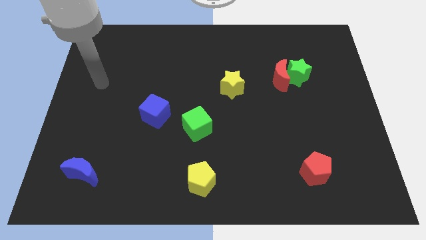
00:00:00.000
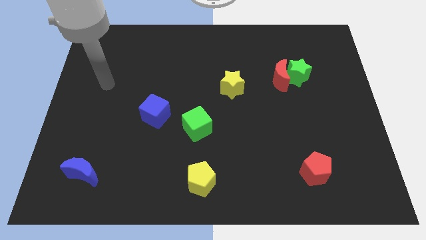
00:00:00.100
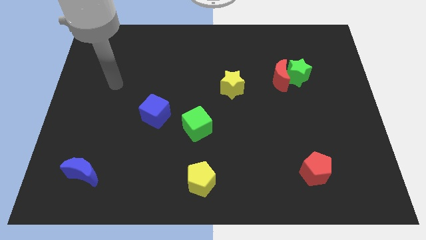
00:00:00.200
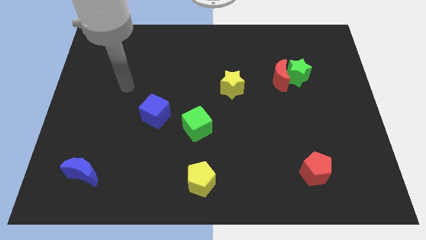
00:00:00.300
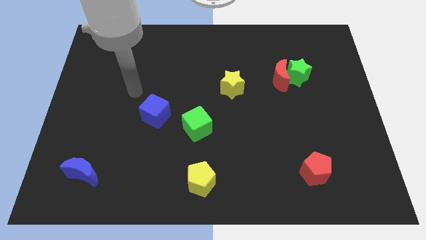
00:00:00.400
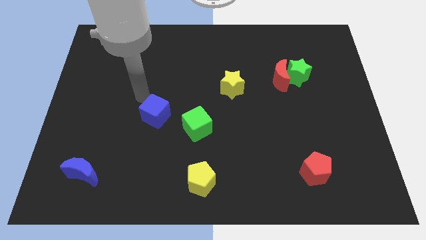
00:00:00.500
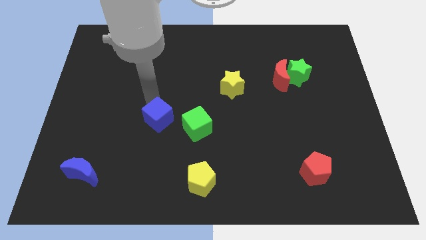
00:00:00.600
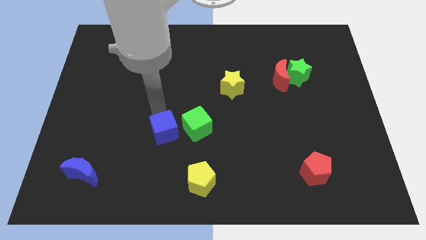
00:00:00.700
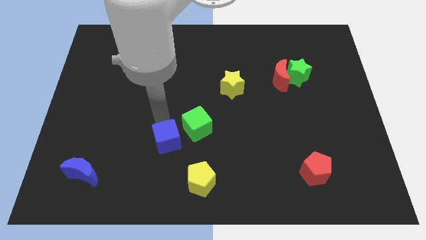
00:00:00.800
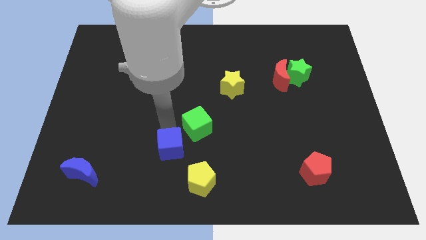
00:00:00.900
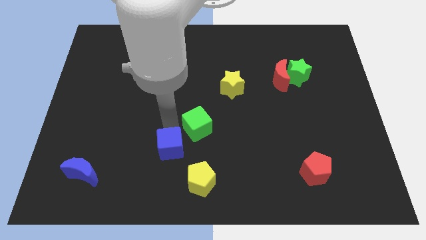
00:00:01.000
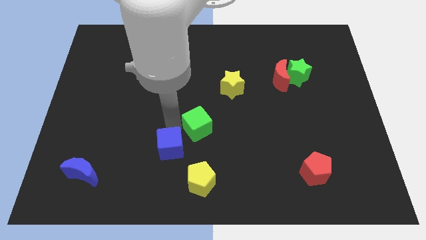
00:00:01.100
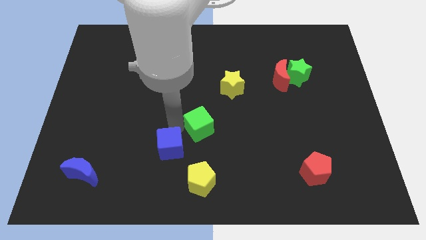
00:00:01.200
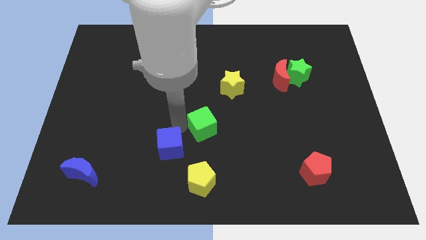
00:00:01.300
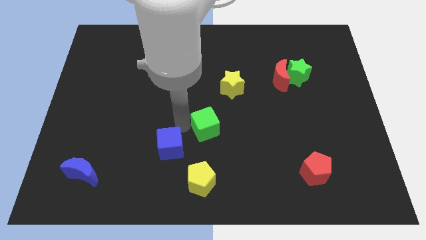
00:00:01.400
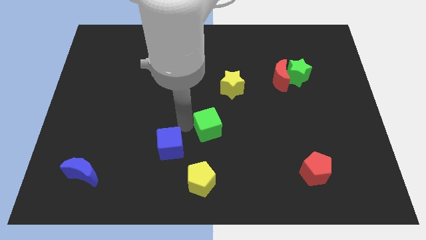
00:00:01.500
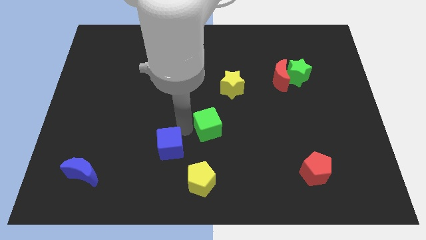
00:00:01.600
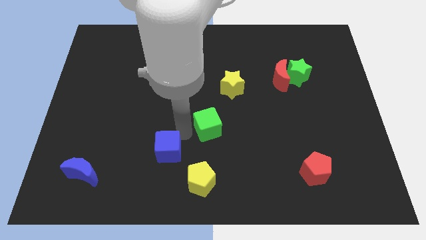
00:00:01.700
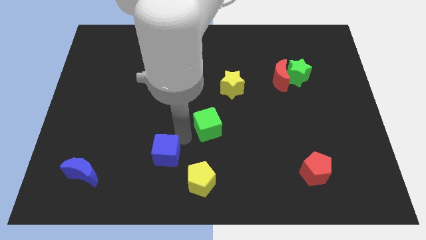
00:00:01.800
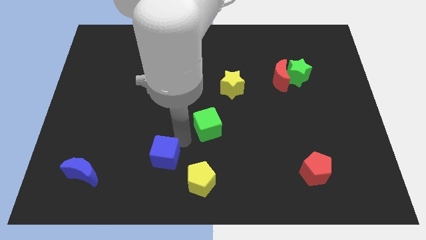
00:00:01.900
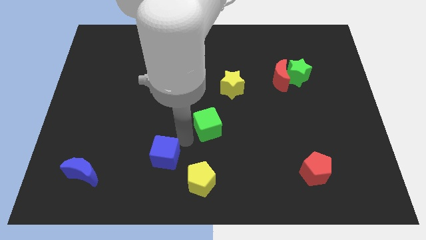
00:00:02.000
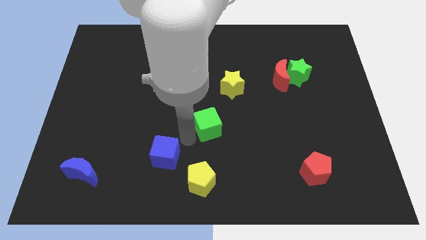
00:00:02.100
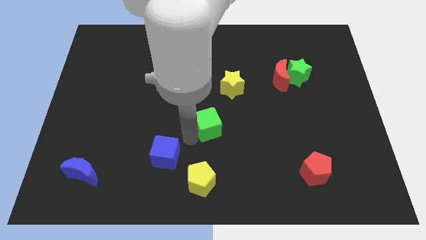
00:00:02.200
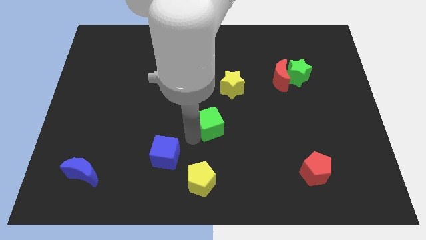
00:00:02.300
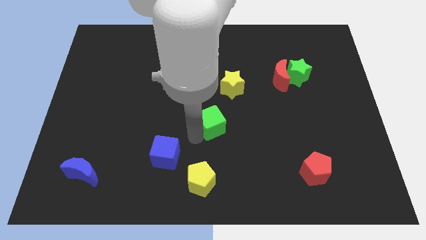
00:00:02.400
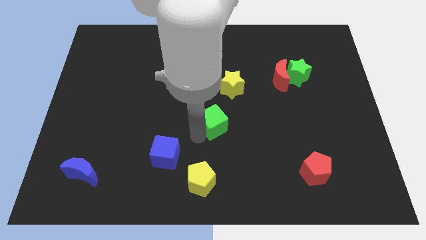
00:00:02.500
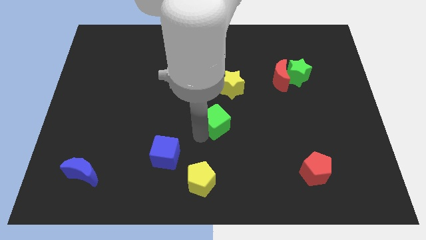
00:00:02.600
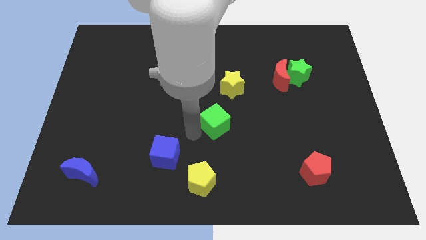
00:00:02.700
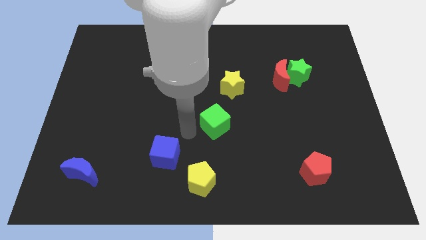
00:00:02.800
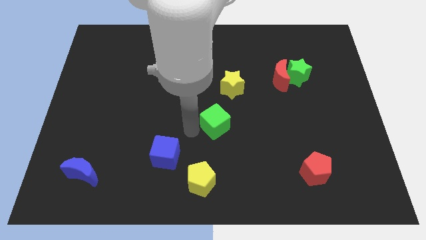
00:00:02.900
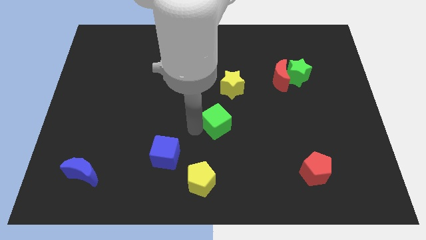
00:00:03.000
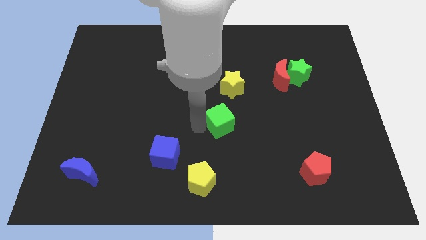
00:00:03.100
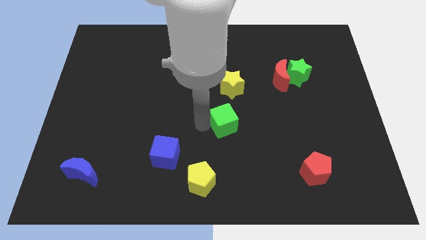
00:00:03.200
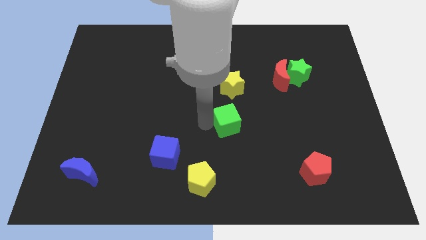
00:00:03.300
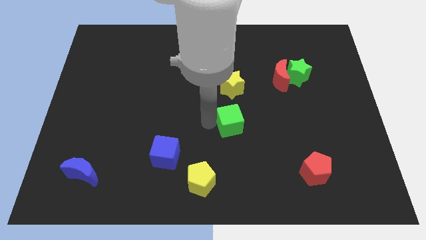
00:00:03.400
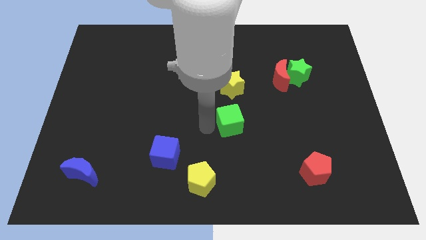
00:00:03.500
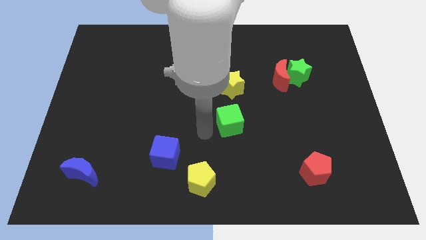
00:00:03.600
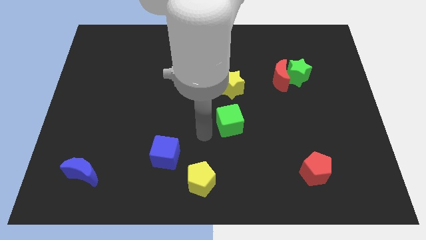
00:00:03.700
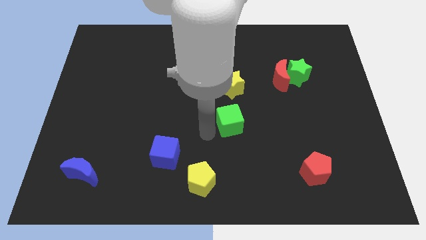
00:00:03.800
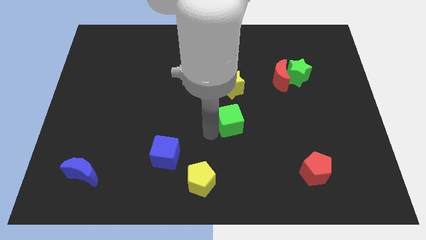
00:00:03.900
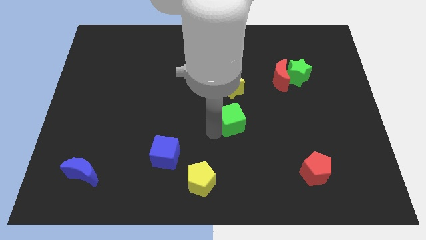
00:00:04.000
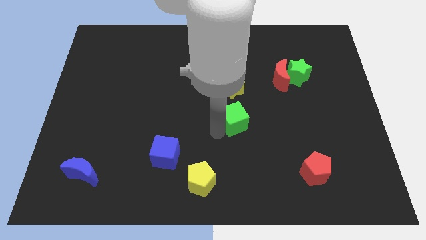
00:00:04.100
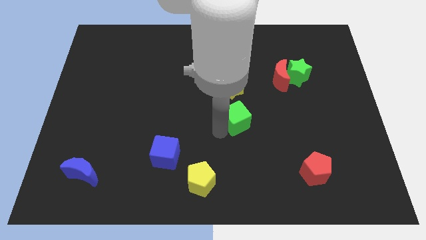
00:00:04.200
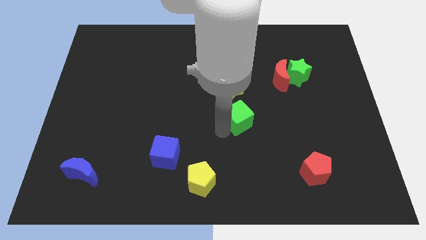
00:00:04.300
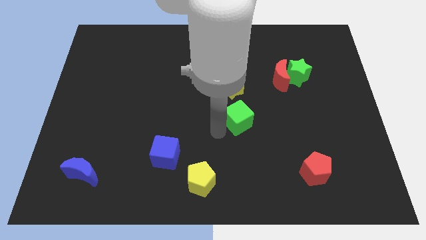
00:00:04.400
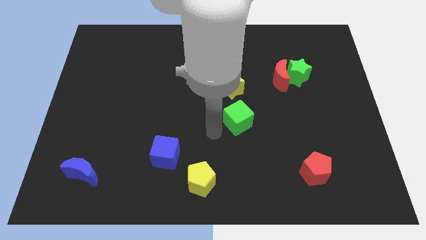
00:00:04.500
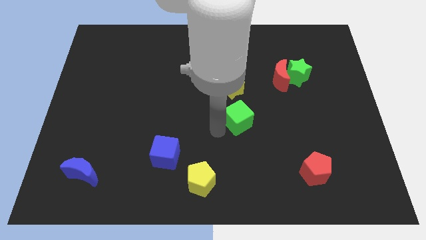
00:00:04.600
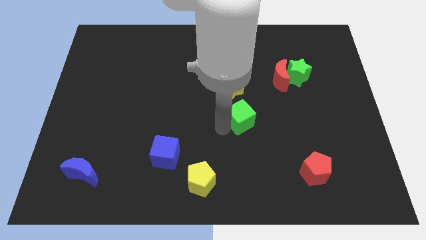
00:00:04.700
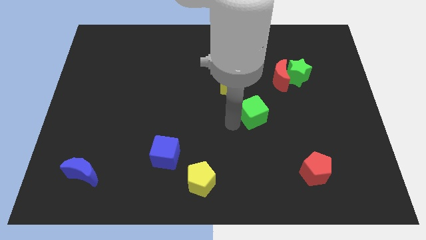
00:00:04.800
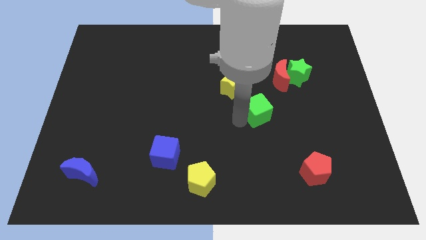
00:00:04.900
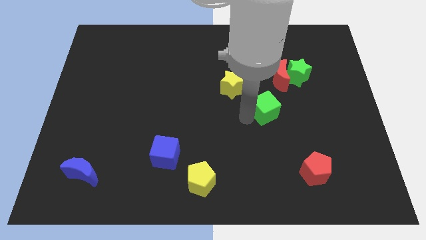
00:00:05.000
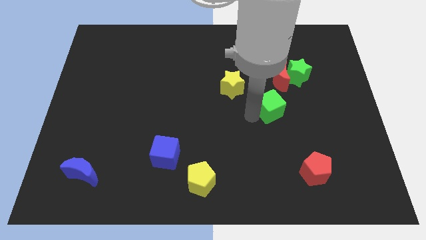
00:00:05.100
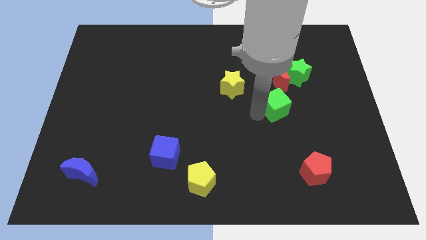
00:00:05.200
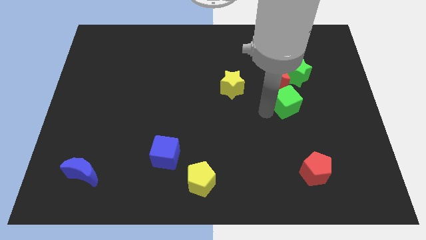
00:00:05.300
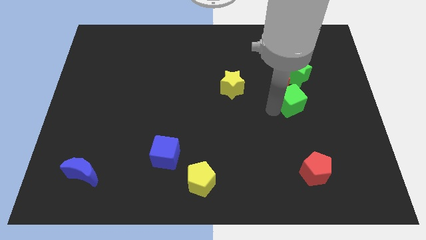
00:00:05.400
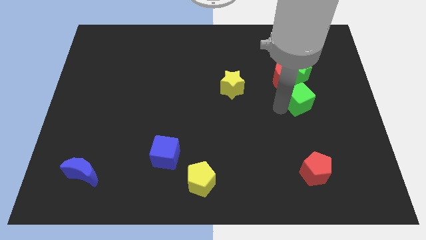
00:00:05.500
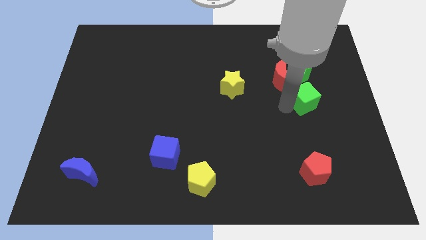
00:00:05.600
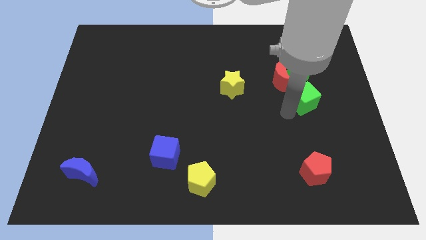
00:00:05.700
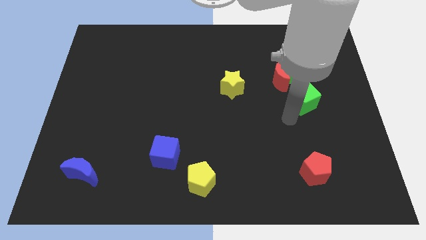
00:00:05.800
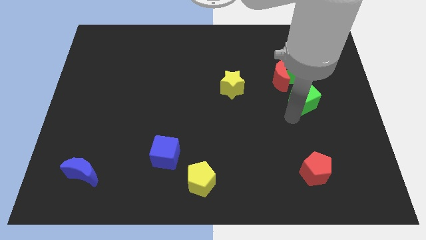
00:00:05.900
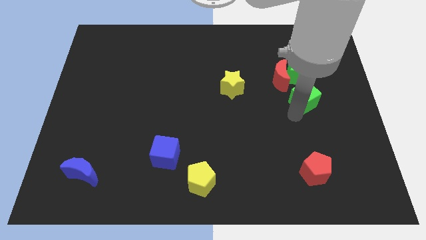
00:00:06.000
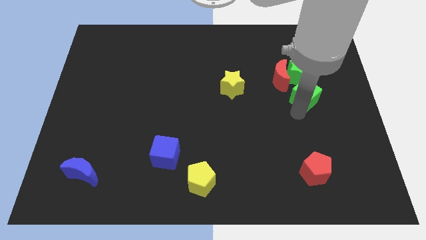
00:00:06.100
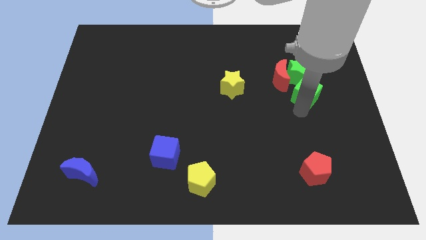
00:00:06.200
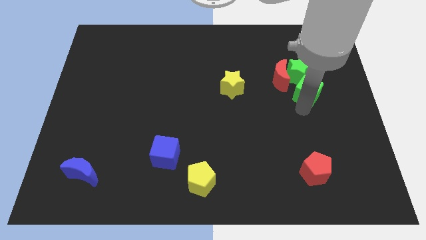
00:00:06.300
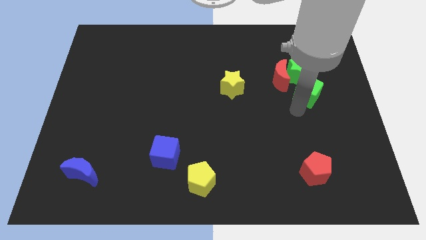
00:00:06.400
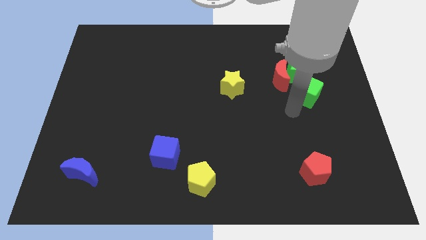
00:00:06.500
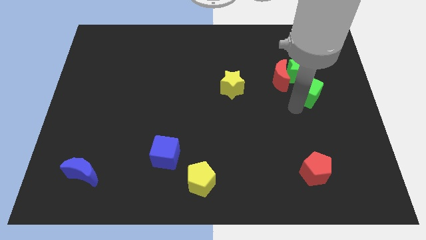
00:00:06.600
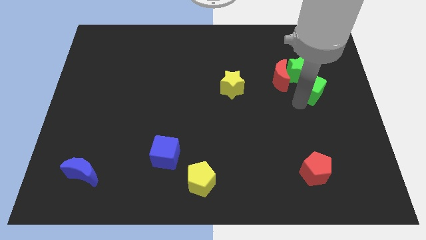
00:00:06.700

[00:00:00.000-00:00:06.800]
push the green cube just right of the red moon

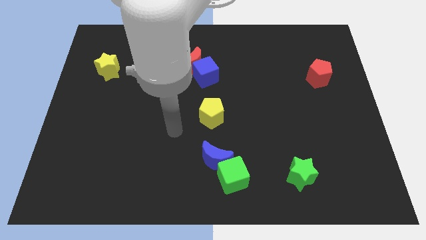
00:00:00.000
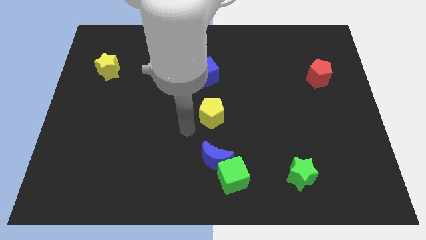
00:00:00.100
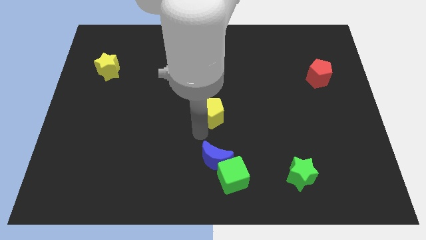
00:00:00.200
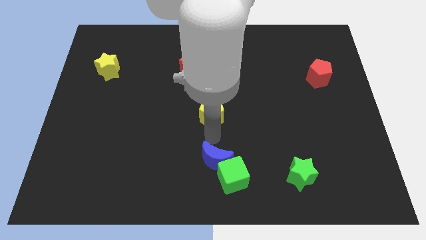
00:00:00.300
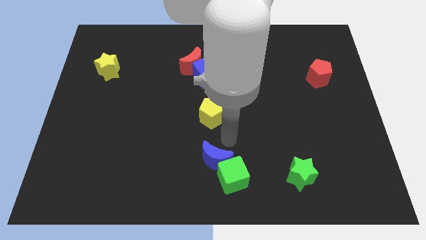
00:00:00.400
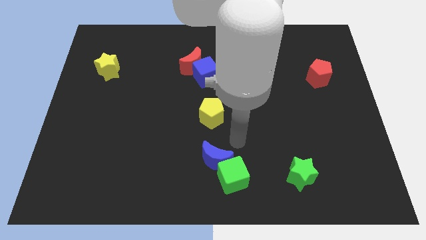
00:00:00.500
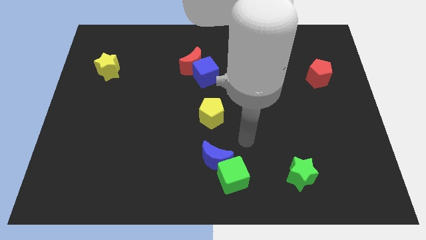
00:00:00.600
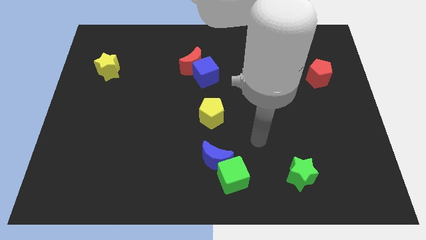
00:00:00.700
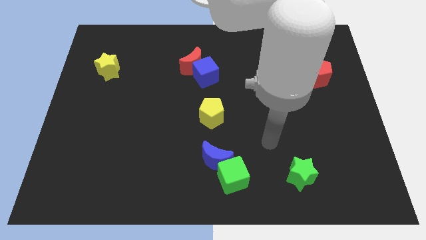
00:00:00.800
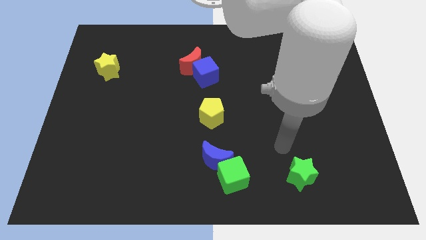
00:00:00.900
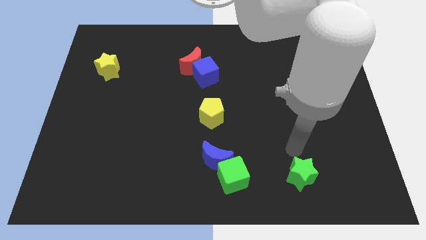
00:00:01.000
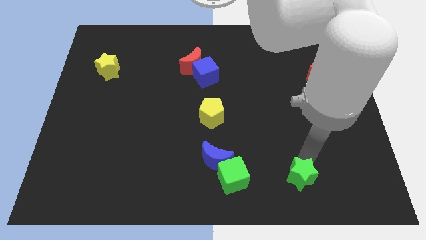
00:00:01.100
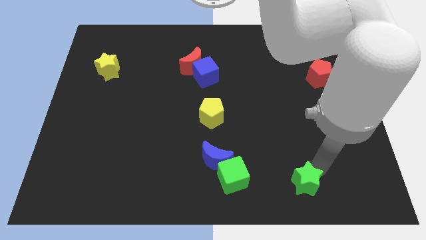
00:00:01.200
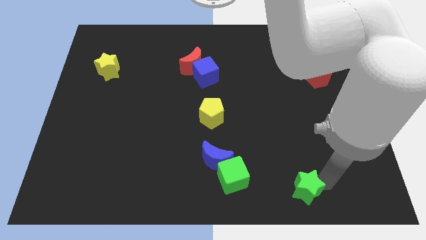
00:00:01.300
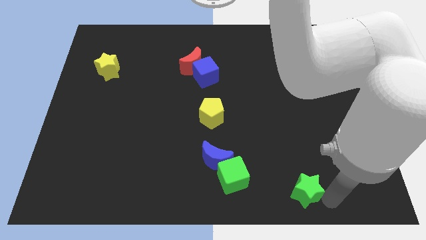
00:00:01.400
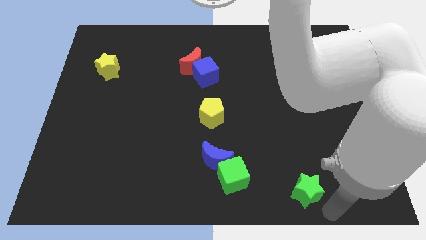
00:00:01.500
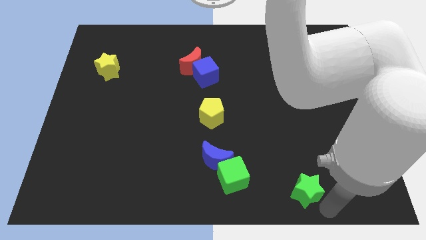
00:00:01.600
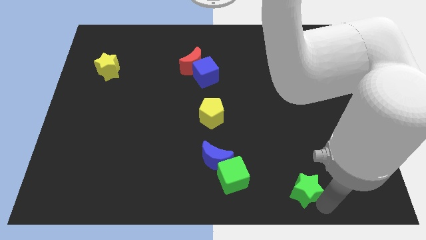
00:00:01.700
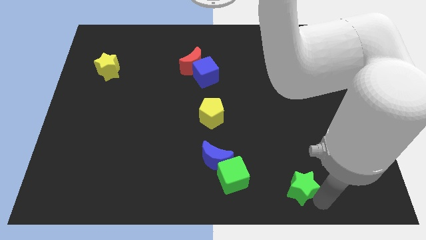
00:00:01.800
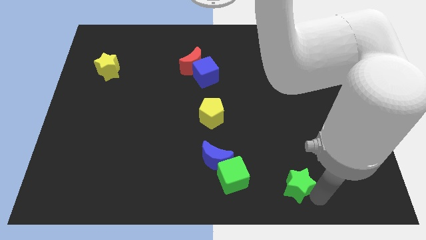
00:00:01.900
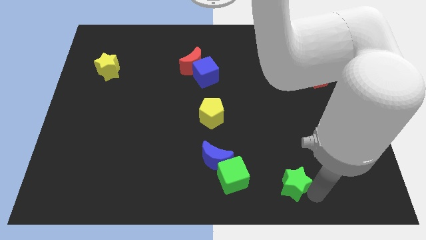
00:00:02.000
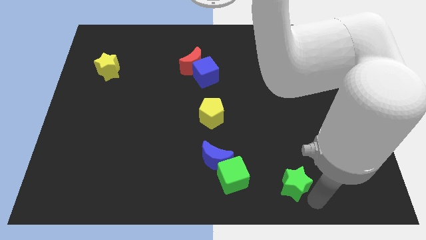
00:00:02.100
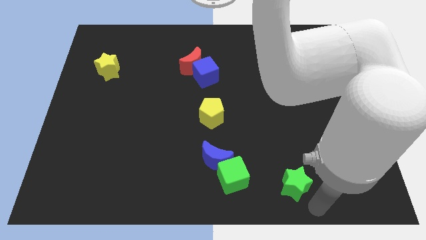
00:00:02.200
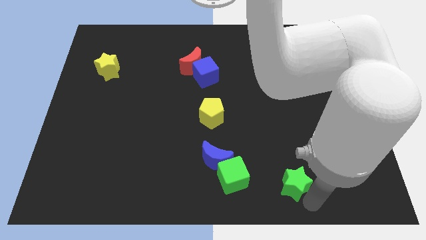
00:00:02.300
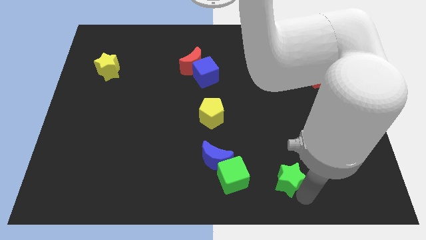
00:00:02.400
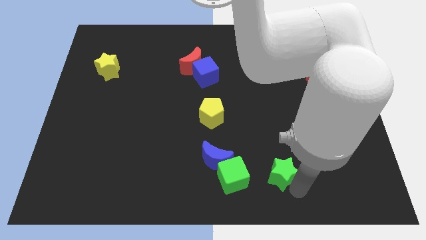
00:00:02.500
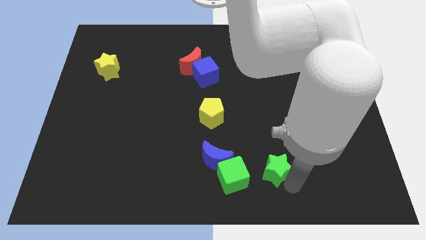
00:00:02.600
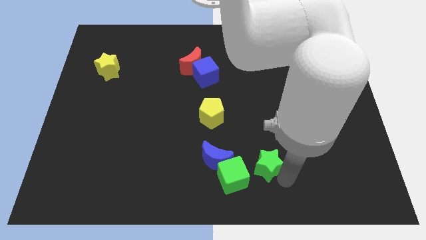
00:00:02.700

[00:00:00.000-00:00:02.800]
slide the green star to the top right of the green cube
